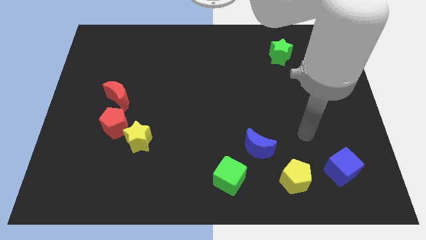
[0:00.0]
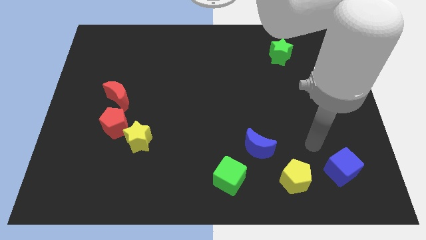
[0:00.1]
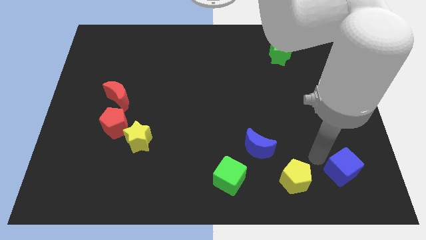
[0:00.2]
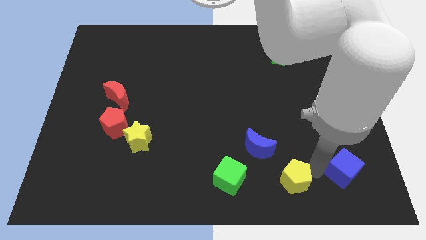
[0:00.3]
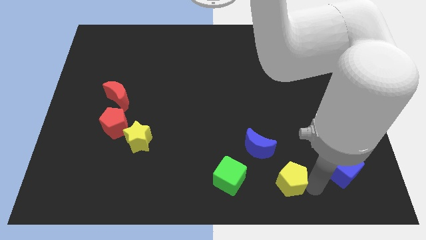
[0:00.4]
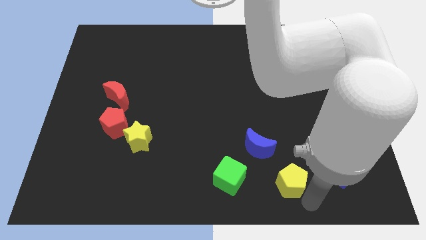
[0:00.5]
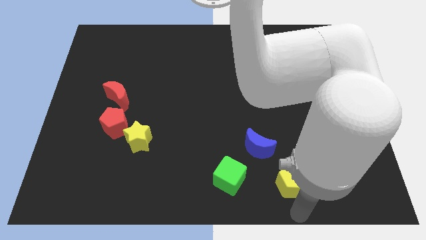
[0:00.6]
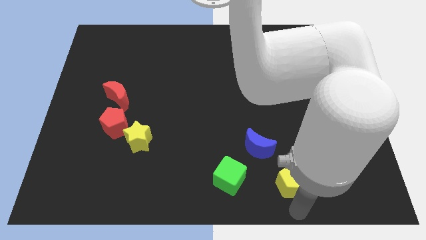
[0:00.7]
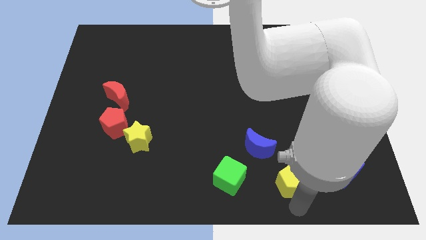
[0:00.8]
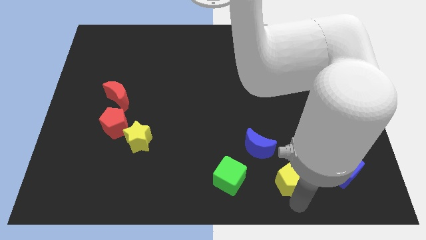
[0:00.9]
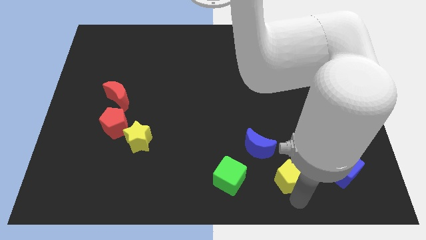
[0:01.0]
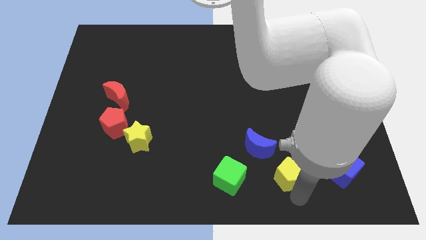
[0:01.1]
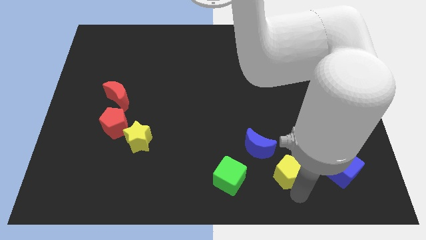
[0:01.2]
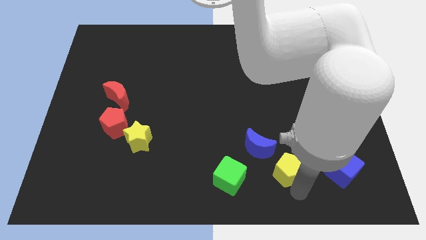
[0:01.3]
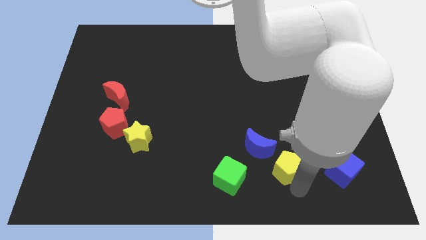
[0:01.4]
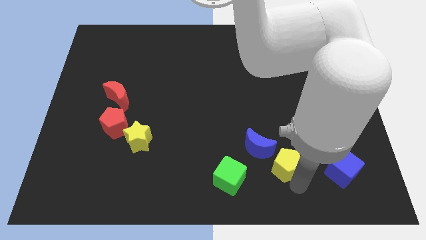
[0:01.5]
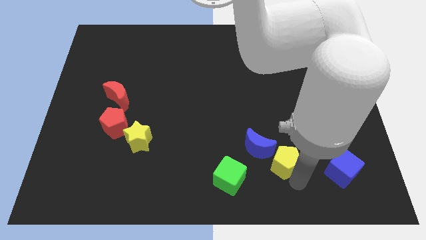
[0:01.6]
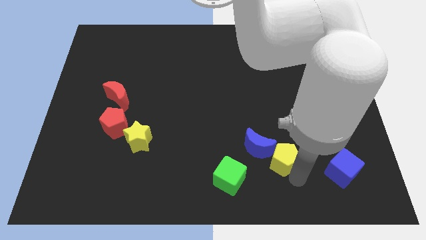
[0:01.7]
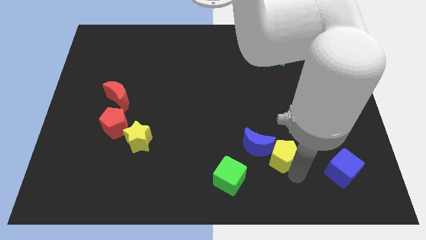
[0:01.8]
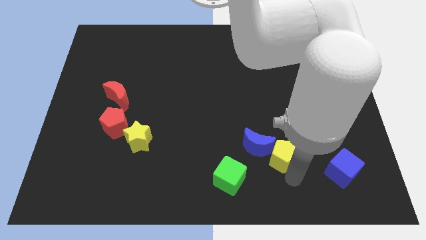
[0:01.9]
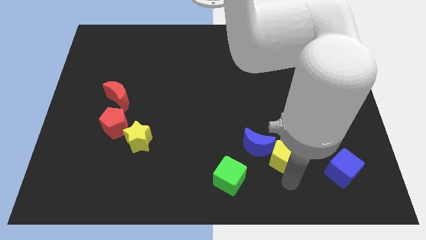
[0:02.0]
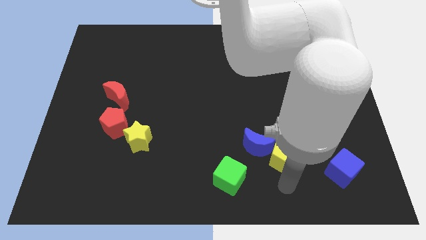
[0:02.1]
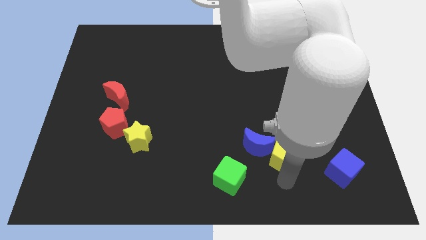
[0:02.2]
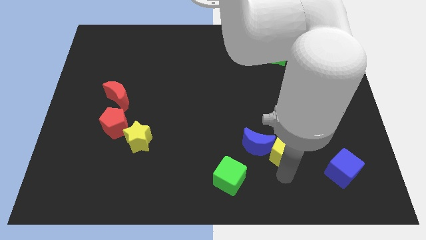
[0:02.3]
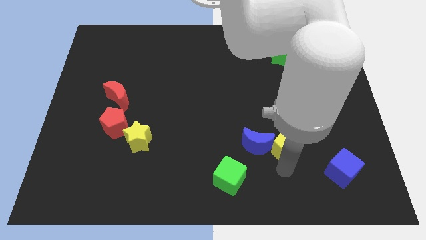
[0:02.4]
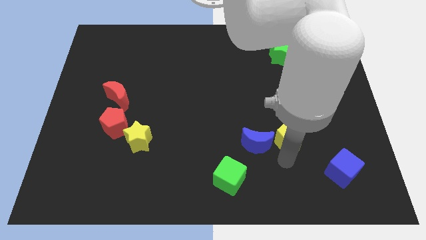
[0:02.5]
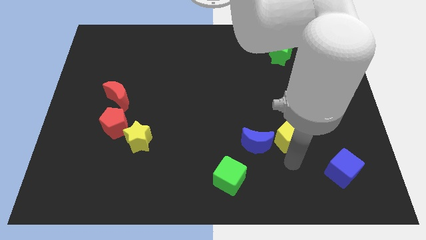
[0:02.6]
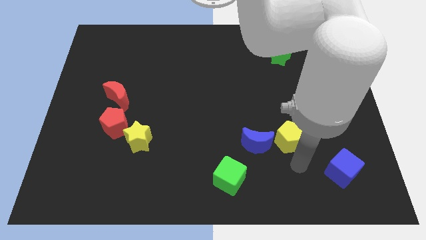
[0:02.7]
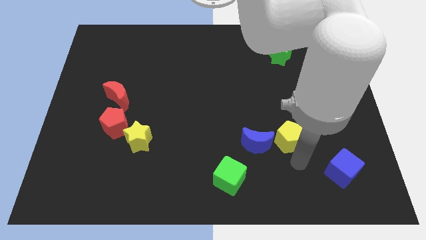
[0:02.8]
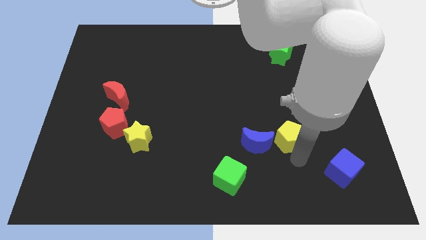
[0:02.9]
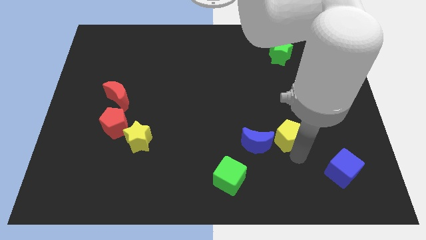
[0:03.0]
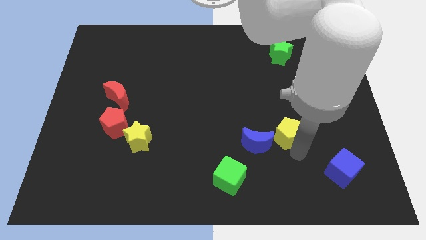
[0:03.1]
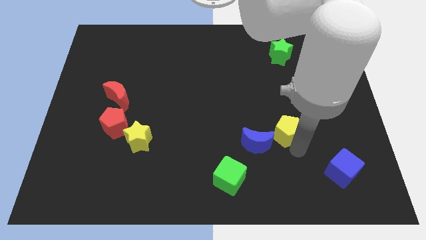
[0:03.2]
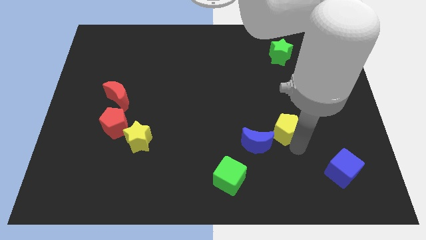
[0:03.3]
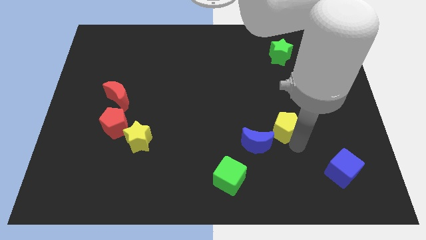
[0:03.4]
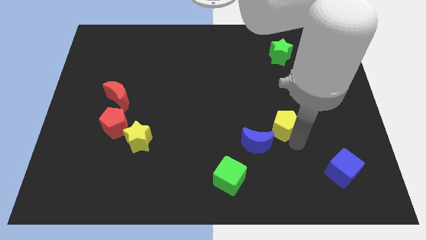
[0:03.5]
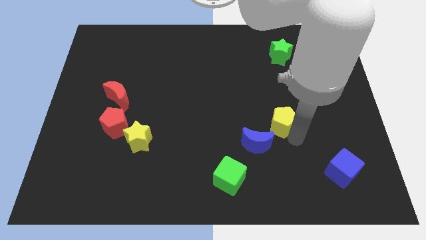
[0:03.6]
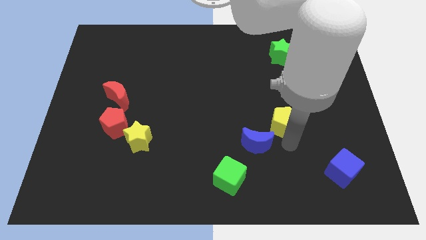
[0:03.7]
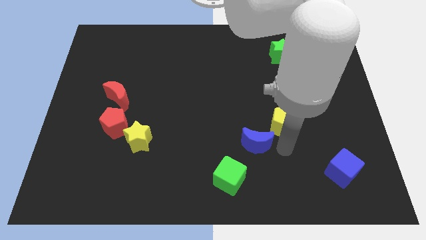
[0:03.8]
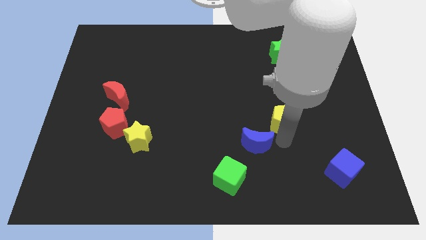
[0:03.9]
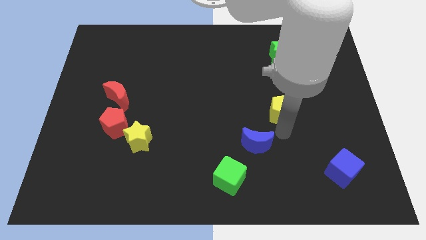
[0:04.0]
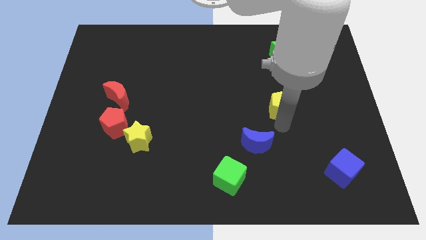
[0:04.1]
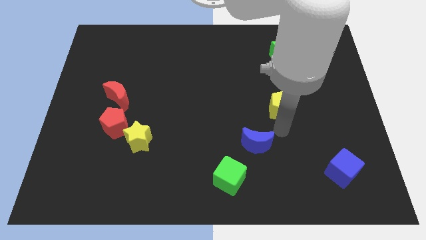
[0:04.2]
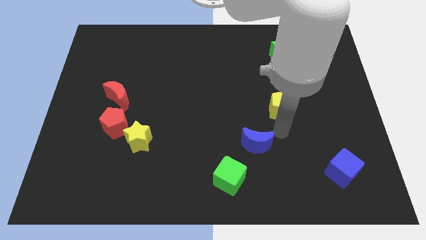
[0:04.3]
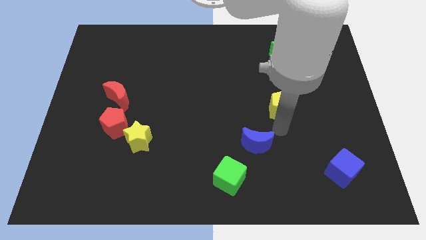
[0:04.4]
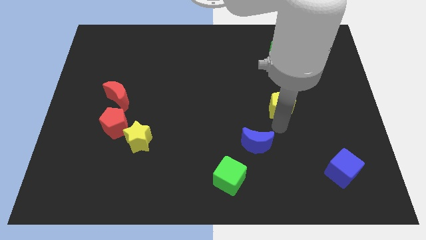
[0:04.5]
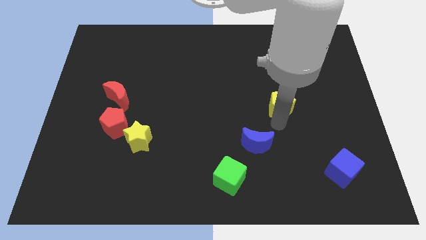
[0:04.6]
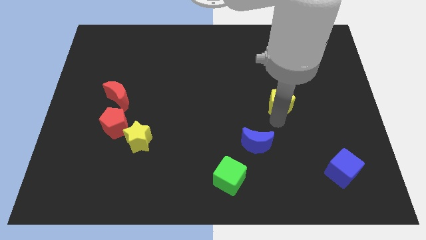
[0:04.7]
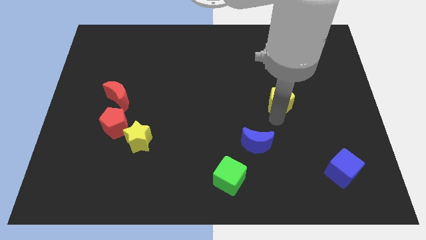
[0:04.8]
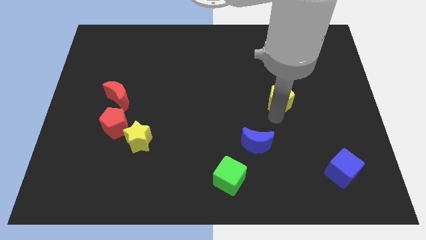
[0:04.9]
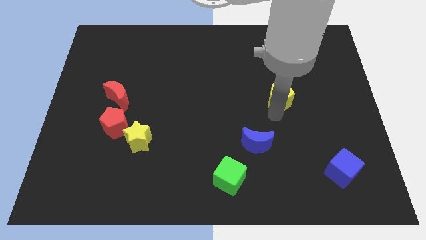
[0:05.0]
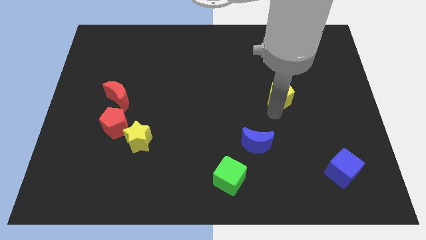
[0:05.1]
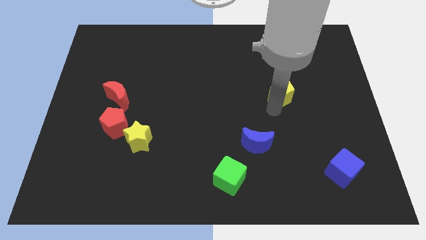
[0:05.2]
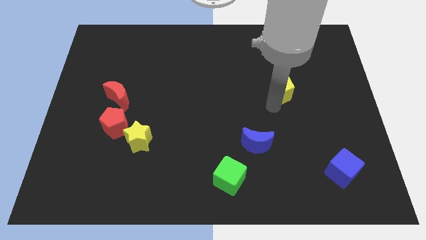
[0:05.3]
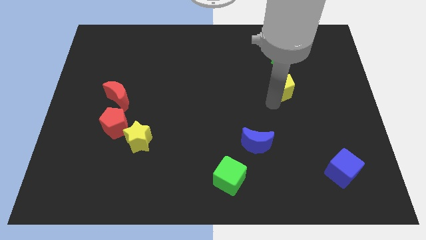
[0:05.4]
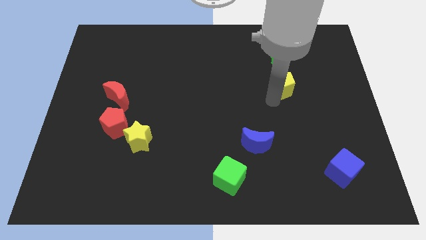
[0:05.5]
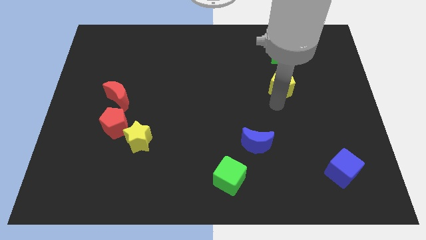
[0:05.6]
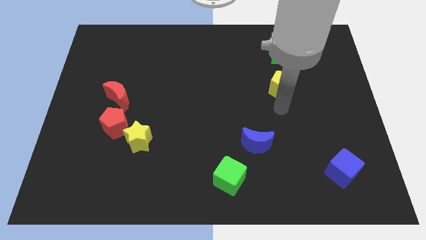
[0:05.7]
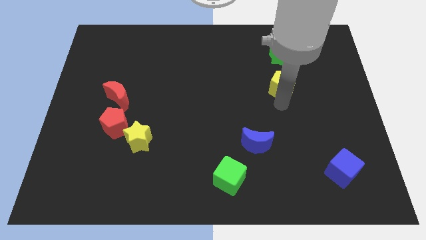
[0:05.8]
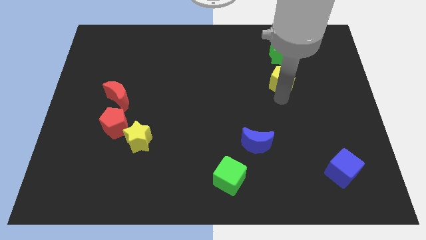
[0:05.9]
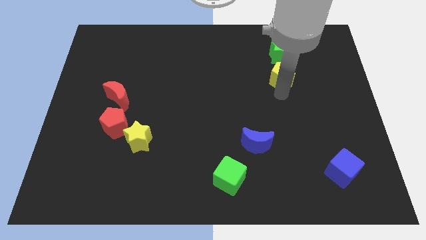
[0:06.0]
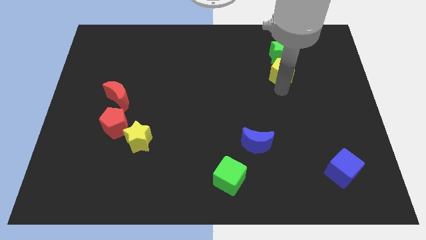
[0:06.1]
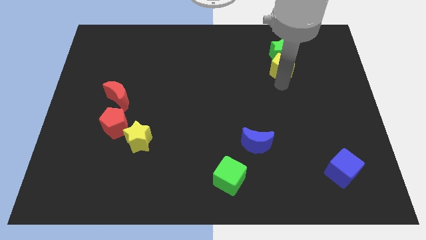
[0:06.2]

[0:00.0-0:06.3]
move the yellow pentagon close to the green star
